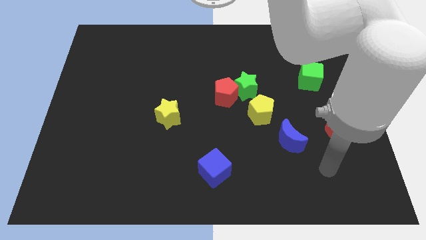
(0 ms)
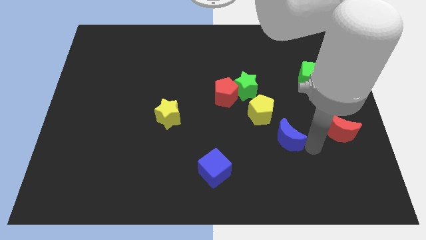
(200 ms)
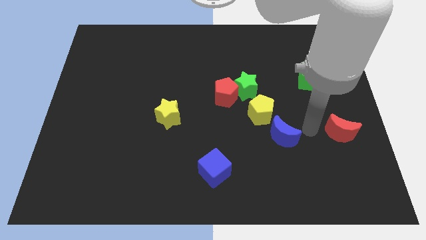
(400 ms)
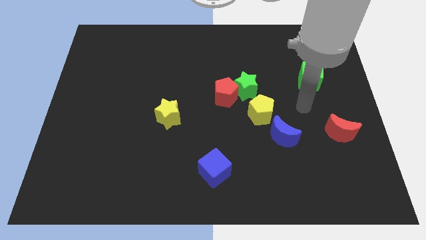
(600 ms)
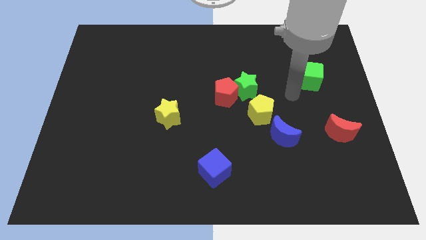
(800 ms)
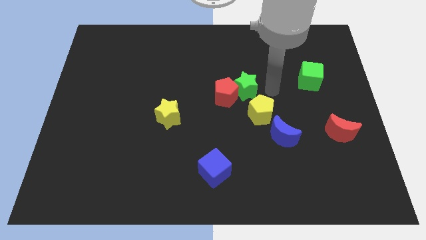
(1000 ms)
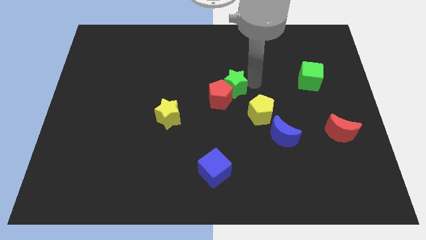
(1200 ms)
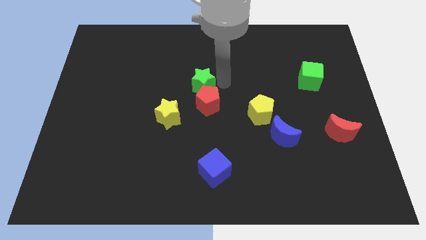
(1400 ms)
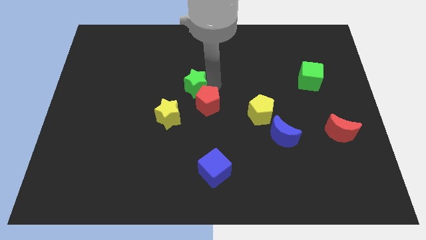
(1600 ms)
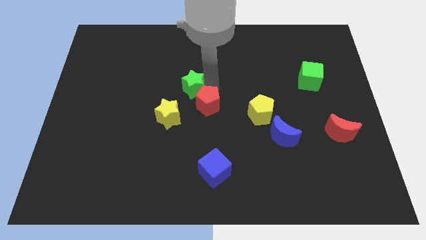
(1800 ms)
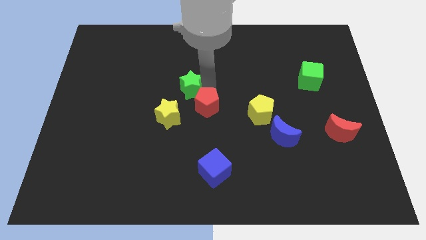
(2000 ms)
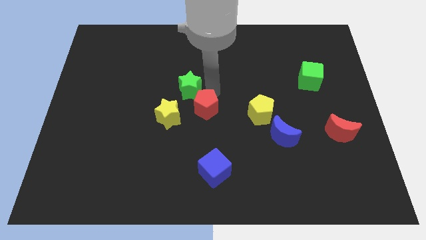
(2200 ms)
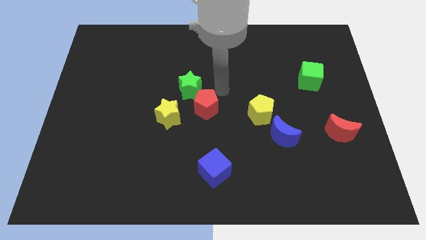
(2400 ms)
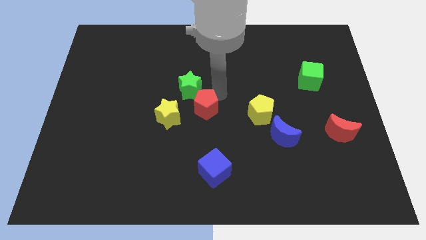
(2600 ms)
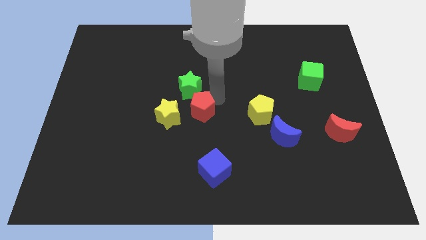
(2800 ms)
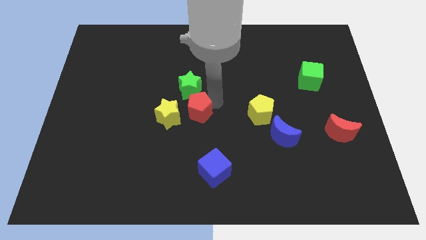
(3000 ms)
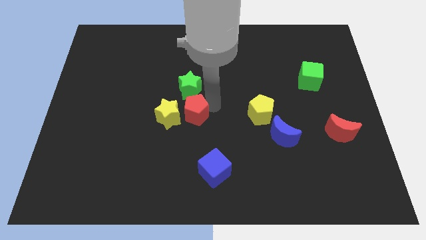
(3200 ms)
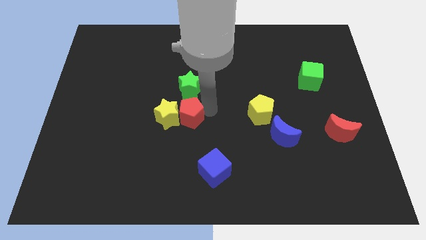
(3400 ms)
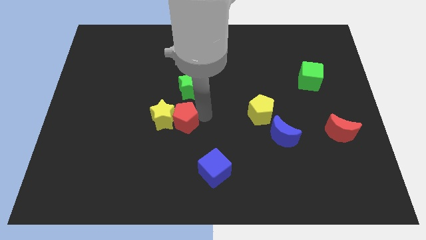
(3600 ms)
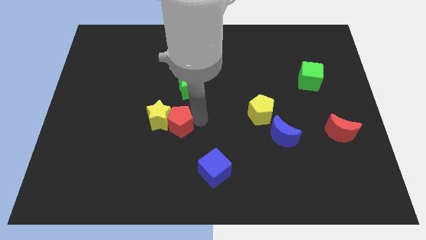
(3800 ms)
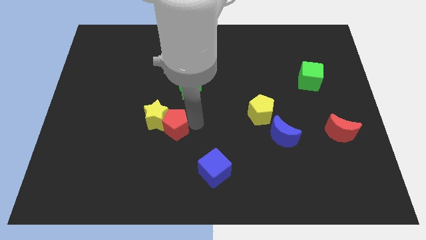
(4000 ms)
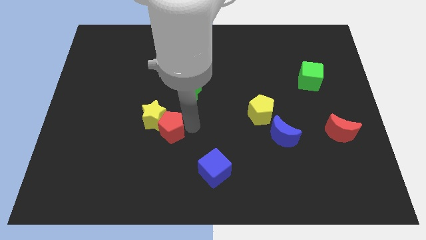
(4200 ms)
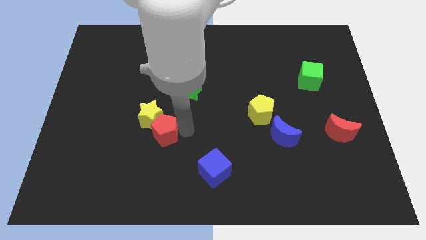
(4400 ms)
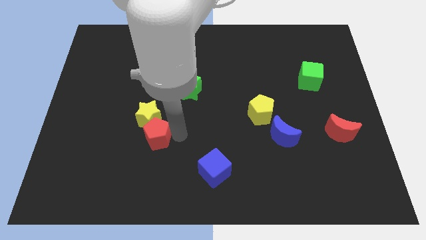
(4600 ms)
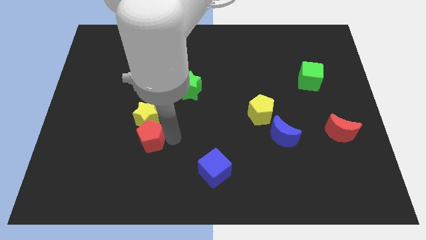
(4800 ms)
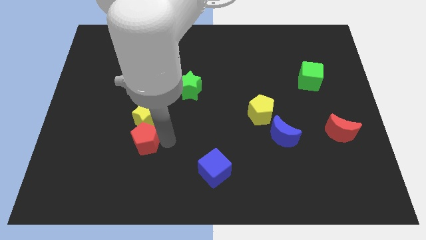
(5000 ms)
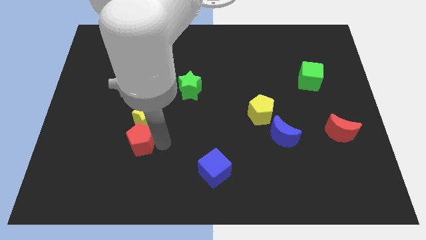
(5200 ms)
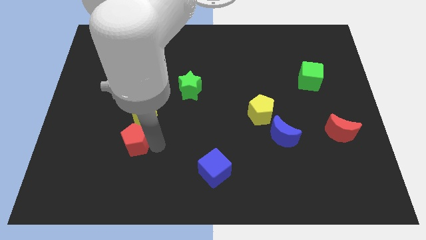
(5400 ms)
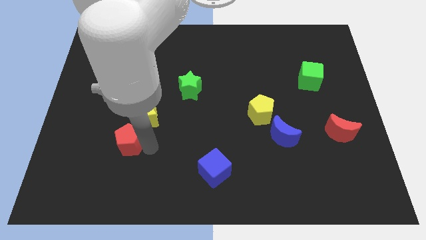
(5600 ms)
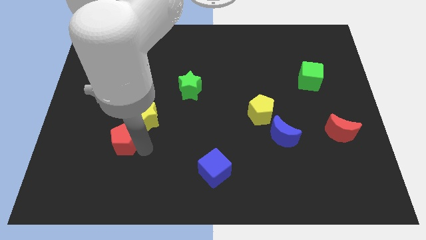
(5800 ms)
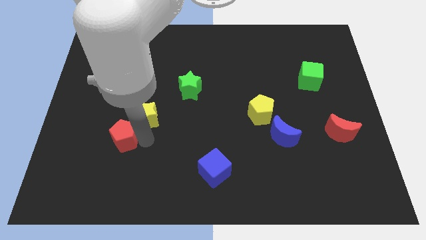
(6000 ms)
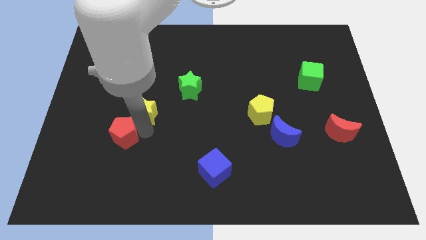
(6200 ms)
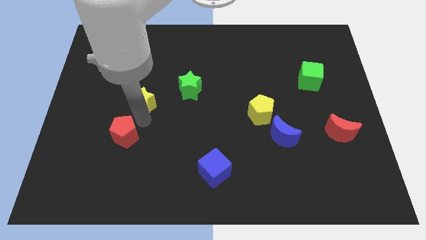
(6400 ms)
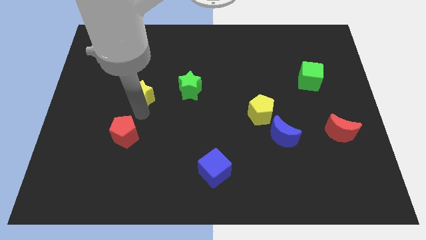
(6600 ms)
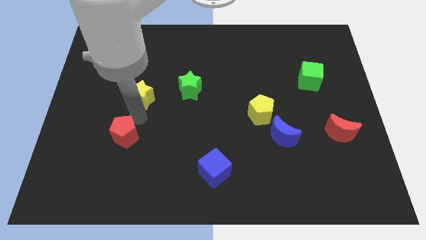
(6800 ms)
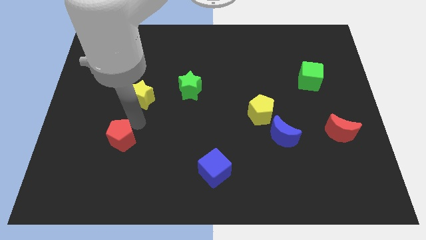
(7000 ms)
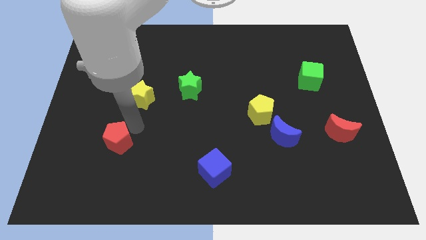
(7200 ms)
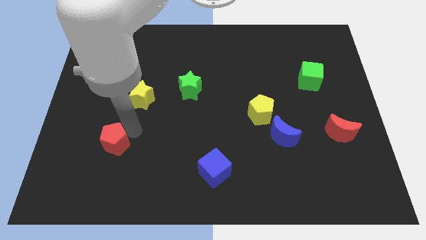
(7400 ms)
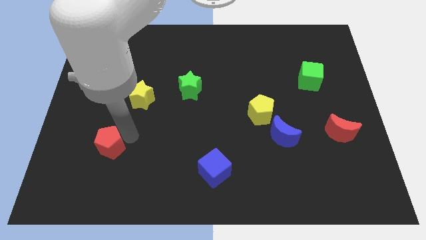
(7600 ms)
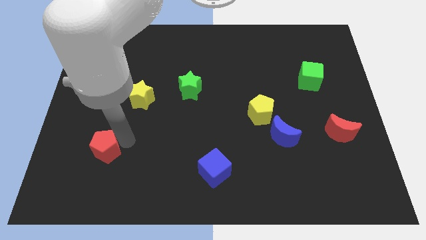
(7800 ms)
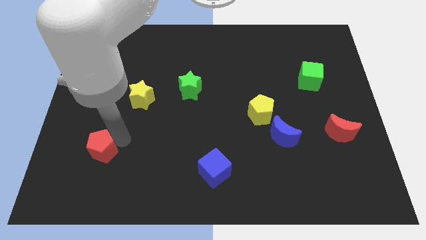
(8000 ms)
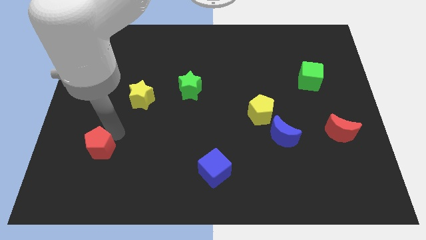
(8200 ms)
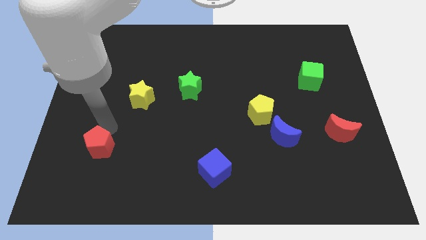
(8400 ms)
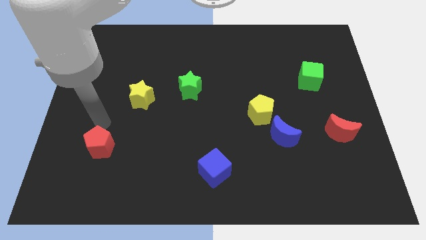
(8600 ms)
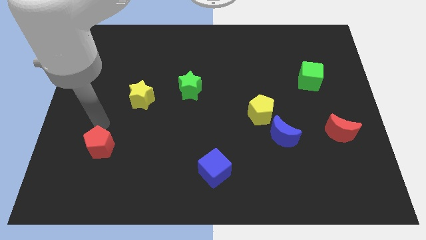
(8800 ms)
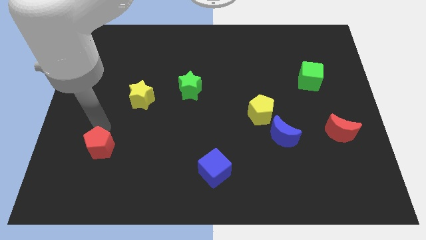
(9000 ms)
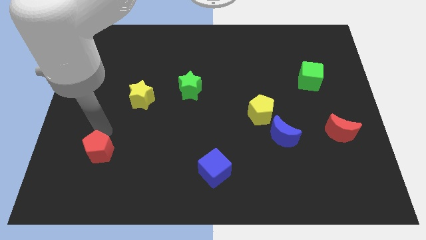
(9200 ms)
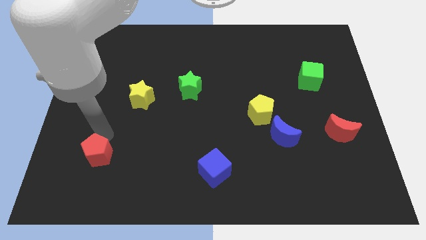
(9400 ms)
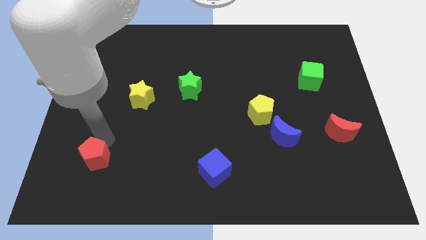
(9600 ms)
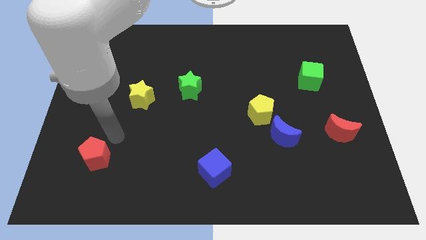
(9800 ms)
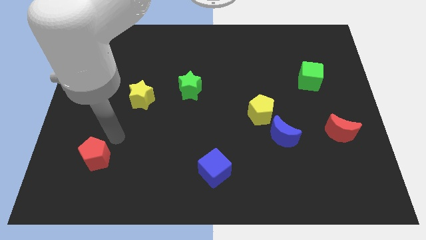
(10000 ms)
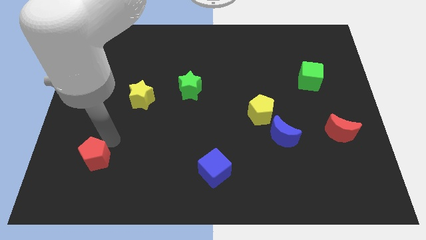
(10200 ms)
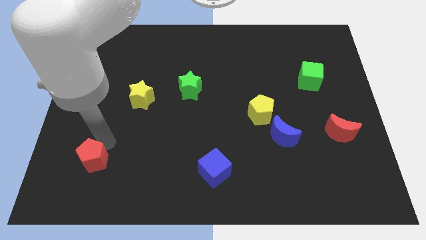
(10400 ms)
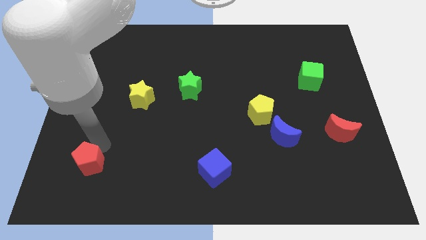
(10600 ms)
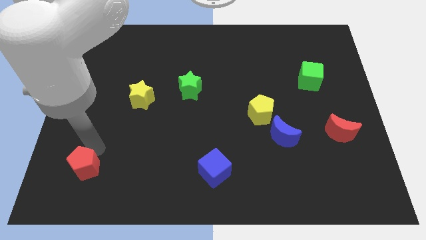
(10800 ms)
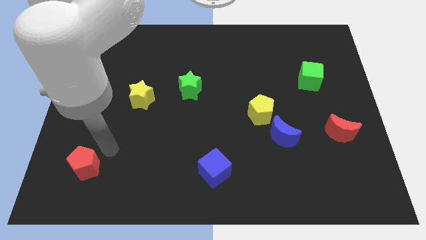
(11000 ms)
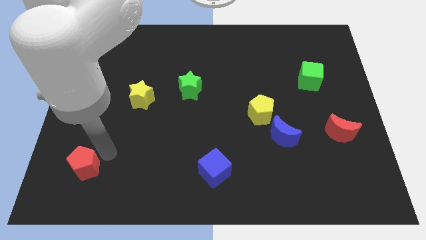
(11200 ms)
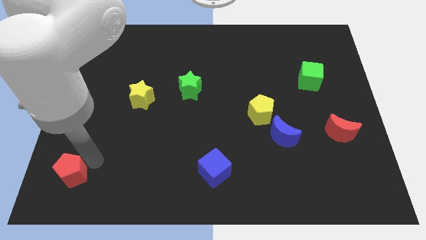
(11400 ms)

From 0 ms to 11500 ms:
push the red pentagon to the lower left corner
